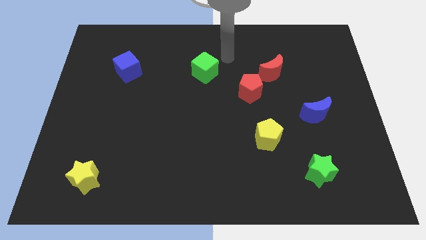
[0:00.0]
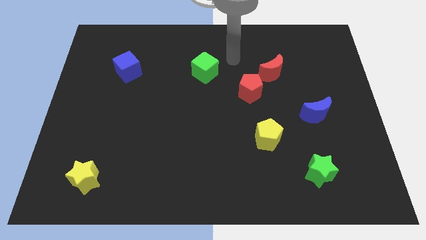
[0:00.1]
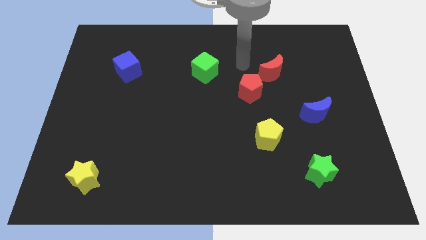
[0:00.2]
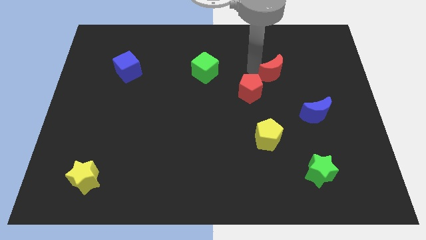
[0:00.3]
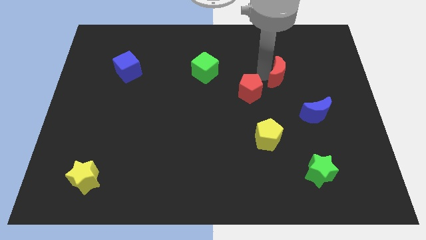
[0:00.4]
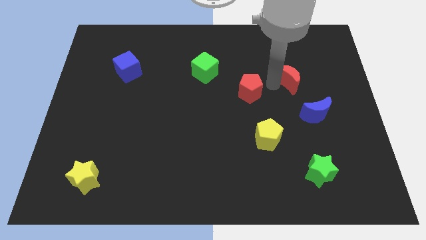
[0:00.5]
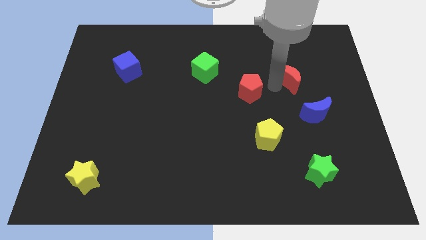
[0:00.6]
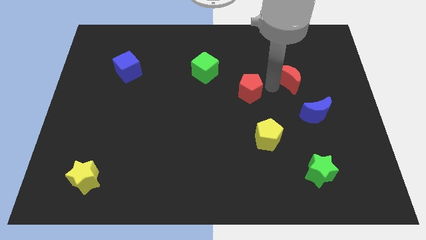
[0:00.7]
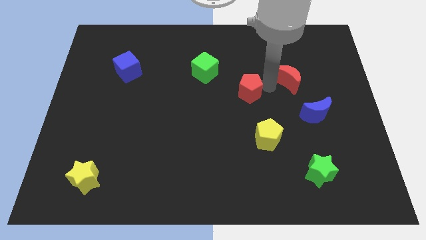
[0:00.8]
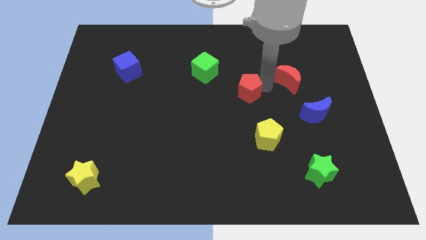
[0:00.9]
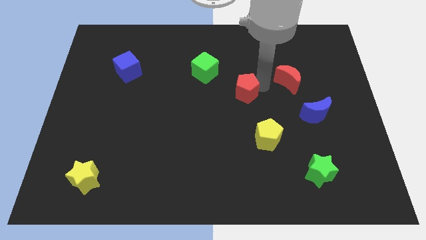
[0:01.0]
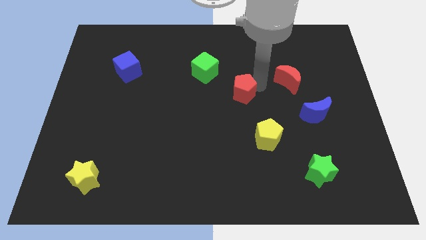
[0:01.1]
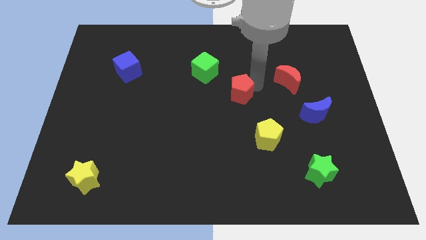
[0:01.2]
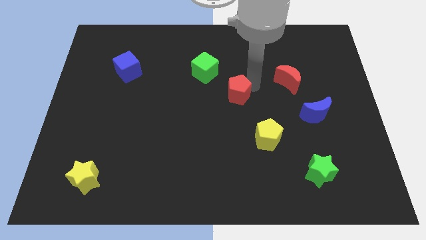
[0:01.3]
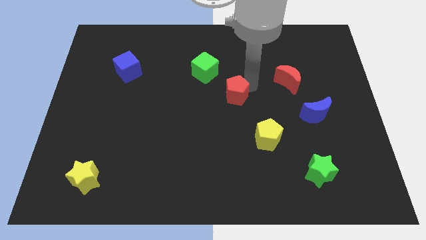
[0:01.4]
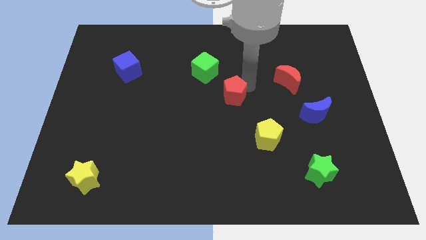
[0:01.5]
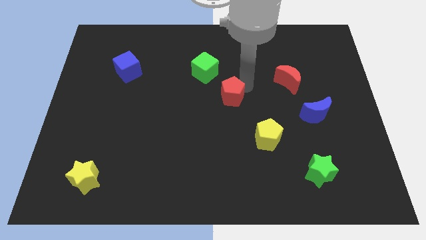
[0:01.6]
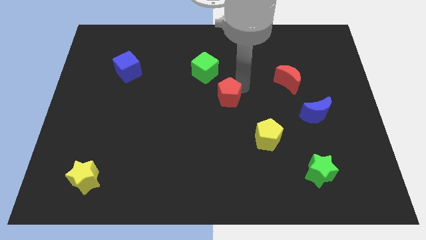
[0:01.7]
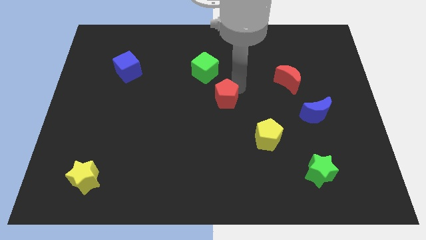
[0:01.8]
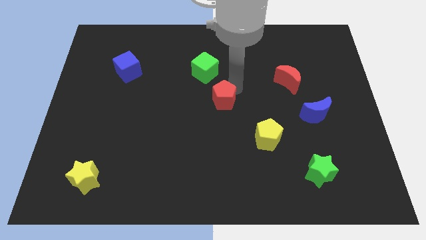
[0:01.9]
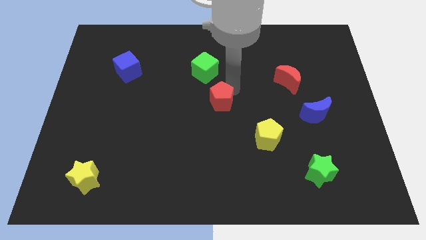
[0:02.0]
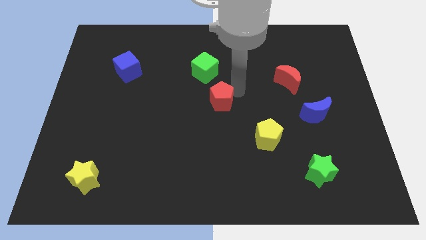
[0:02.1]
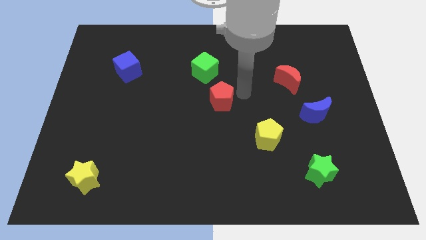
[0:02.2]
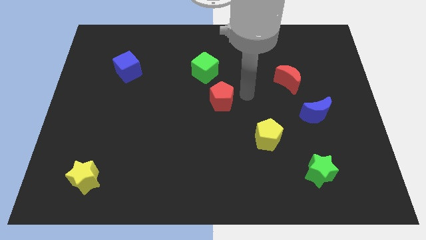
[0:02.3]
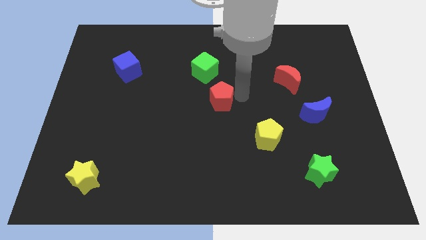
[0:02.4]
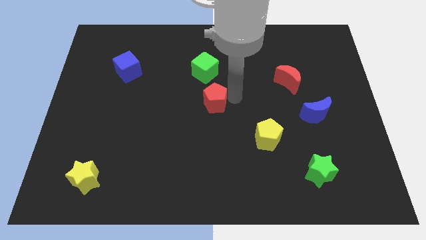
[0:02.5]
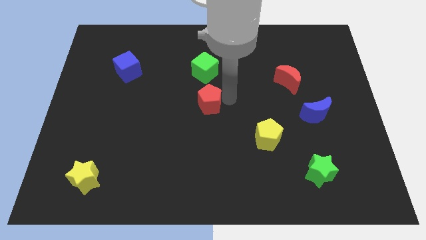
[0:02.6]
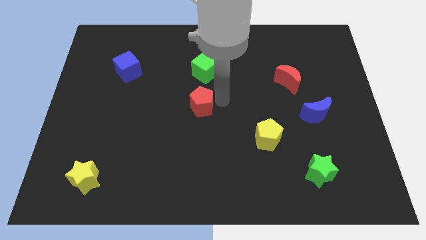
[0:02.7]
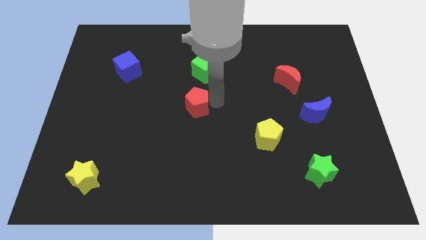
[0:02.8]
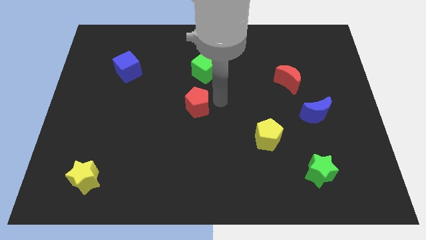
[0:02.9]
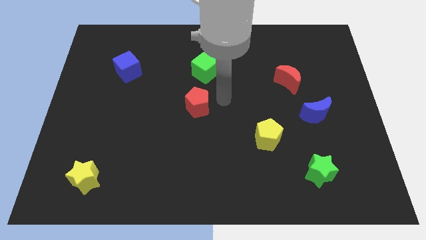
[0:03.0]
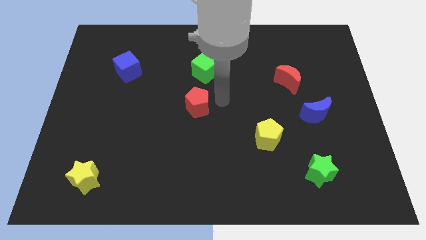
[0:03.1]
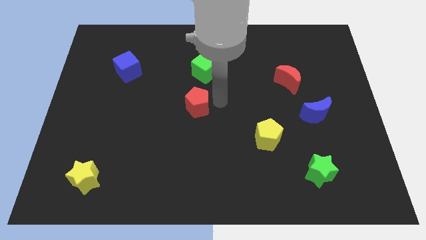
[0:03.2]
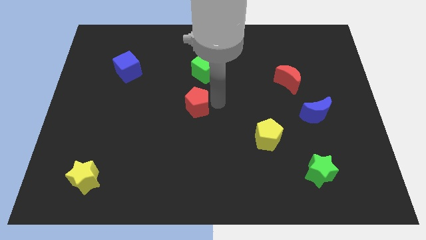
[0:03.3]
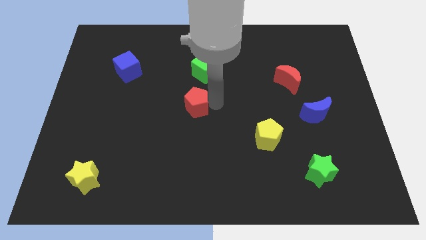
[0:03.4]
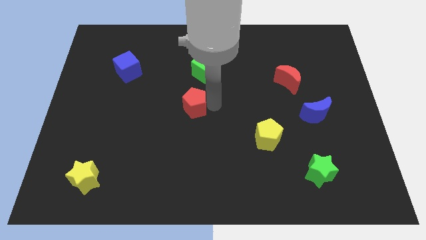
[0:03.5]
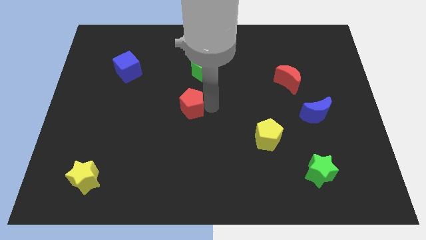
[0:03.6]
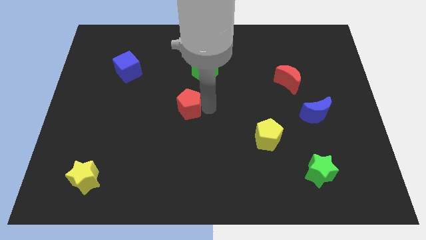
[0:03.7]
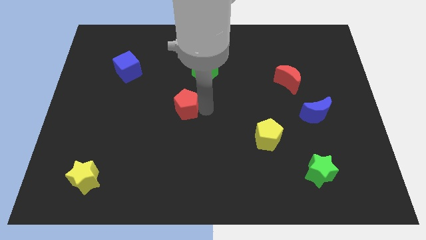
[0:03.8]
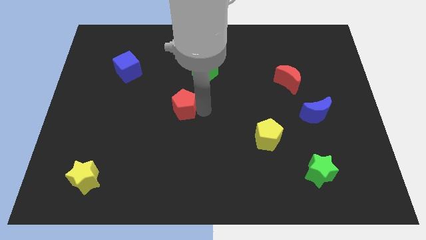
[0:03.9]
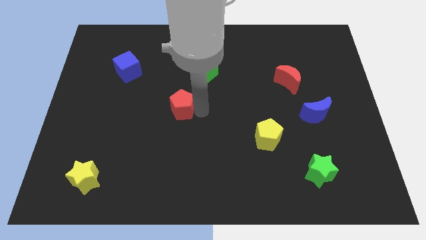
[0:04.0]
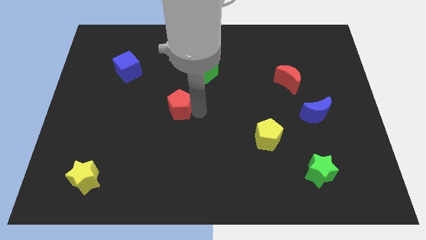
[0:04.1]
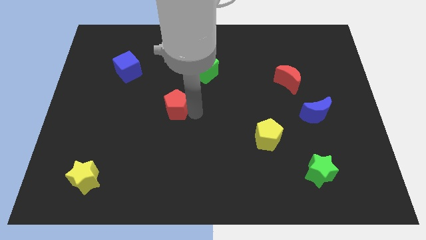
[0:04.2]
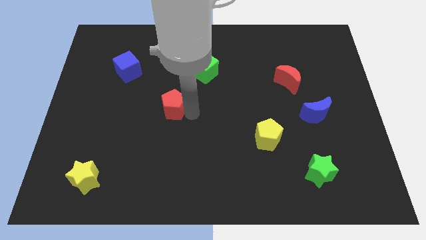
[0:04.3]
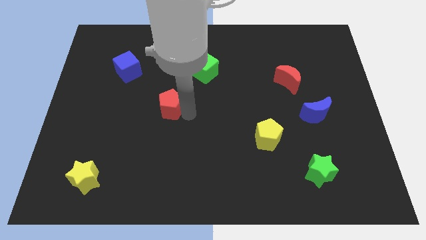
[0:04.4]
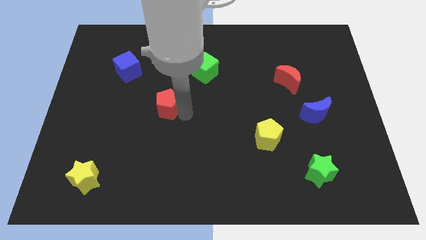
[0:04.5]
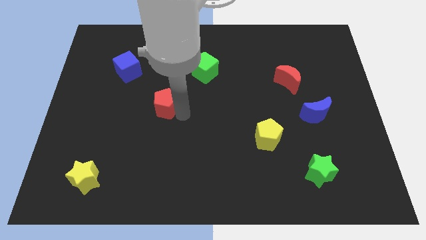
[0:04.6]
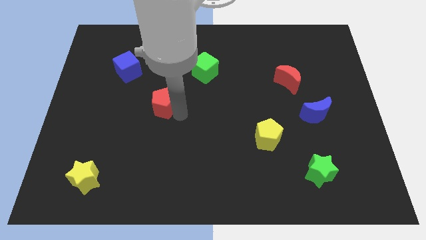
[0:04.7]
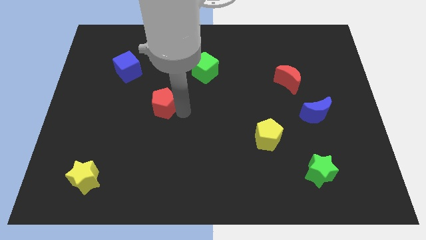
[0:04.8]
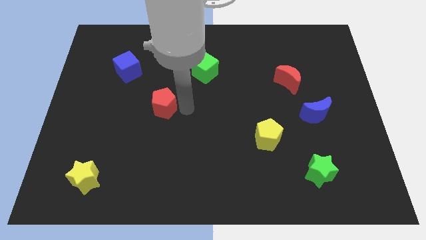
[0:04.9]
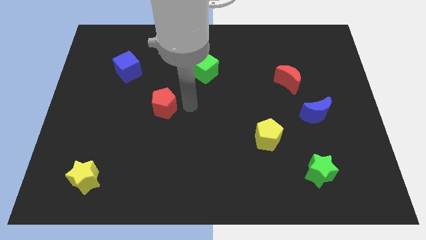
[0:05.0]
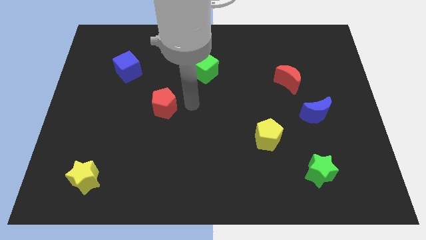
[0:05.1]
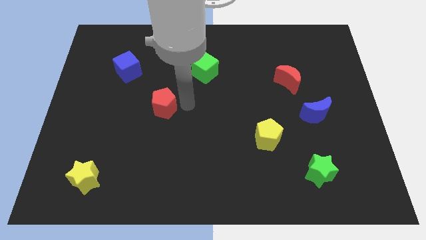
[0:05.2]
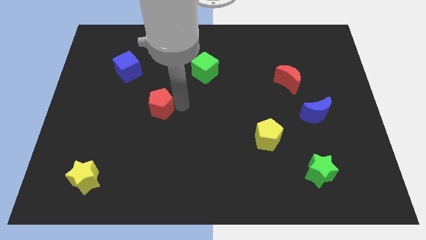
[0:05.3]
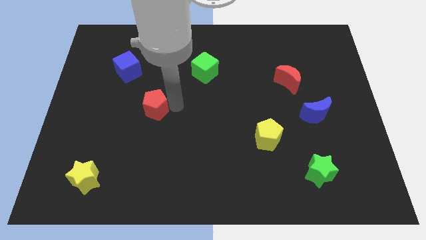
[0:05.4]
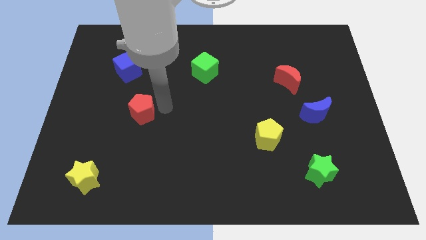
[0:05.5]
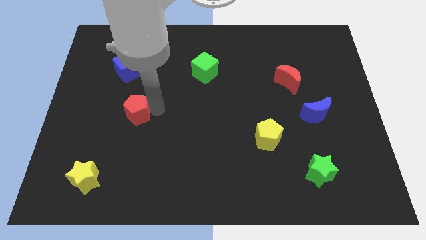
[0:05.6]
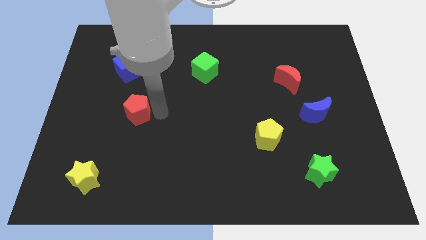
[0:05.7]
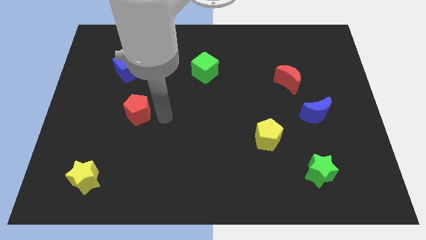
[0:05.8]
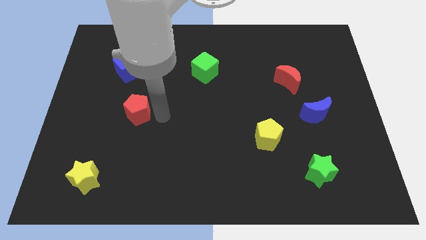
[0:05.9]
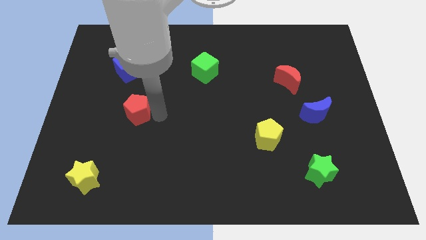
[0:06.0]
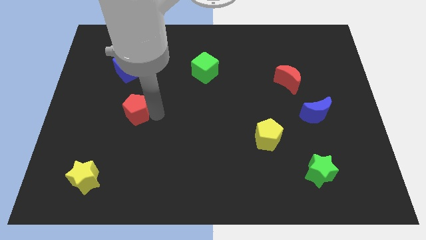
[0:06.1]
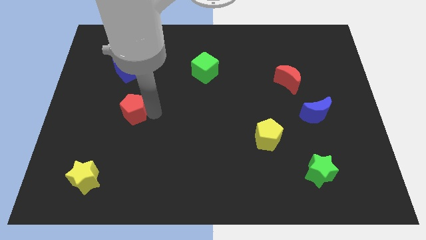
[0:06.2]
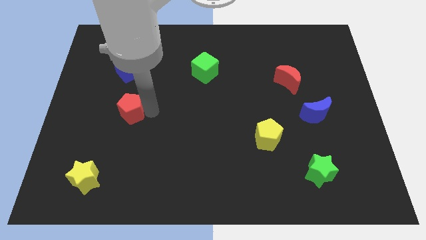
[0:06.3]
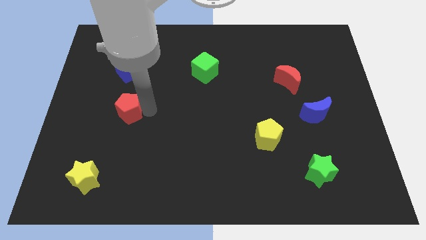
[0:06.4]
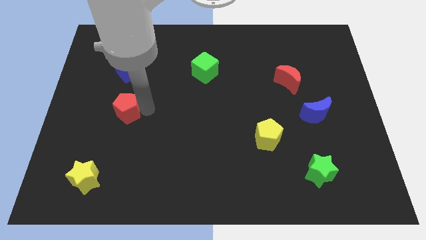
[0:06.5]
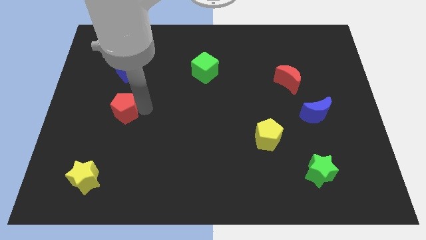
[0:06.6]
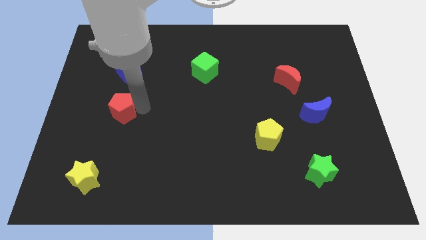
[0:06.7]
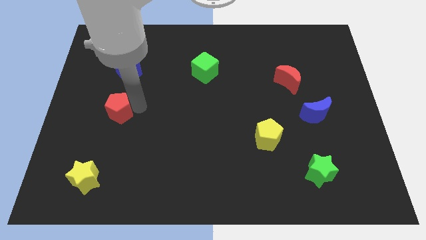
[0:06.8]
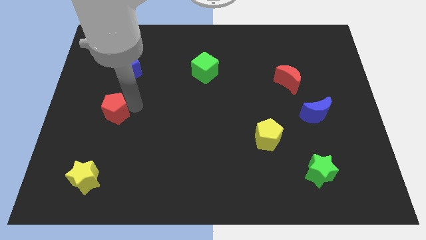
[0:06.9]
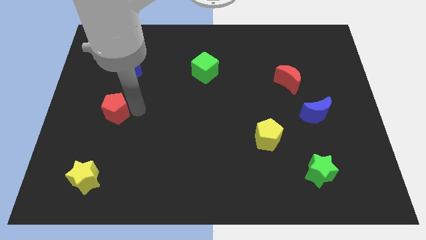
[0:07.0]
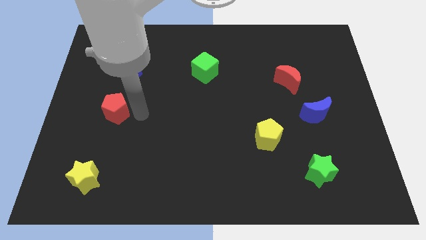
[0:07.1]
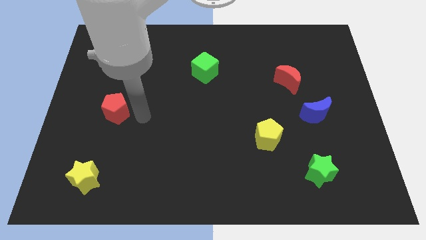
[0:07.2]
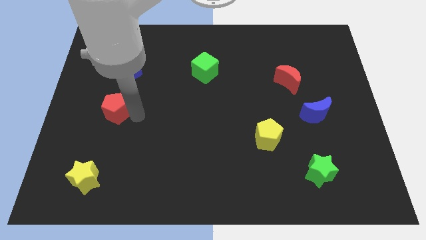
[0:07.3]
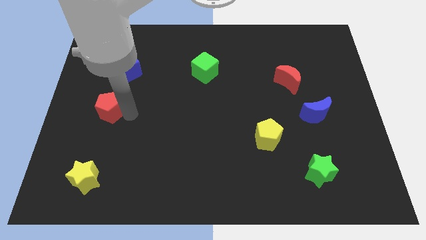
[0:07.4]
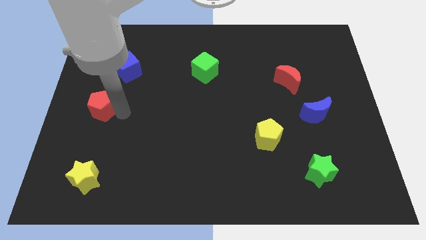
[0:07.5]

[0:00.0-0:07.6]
put the red pentagon to the left side
